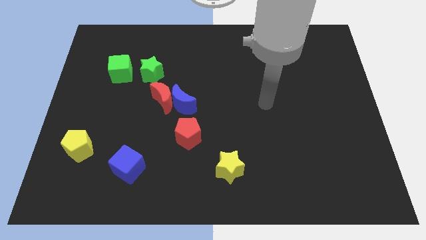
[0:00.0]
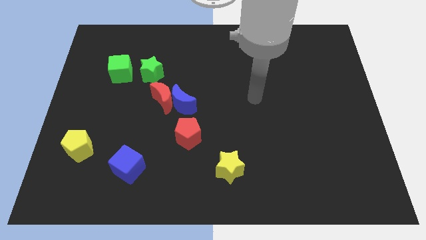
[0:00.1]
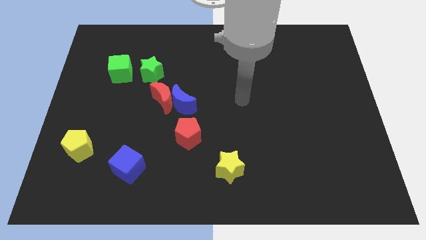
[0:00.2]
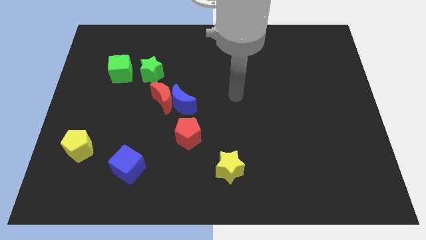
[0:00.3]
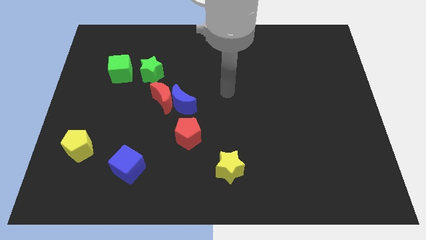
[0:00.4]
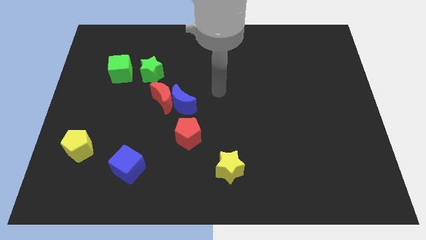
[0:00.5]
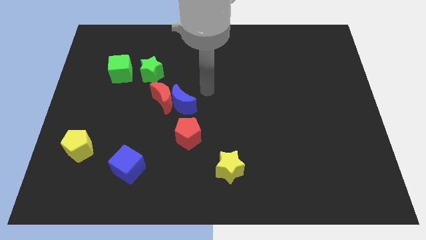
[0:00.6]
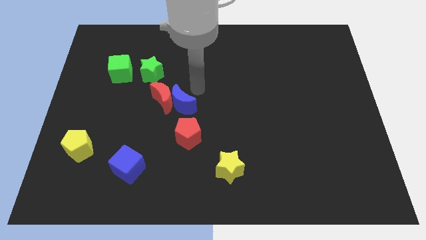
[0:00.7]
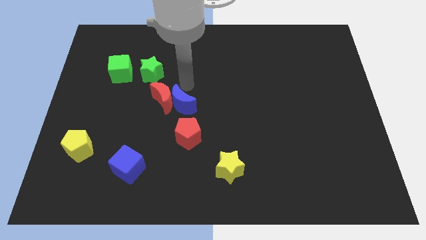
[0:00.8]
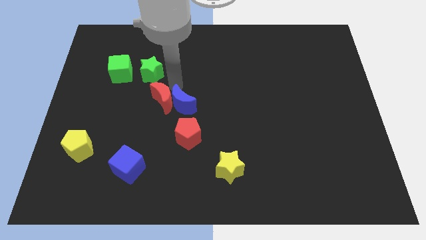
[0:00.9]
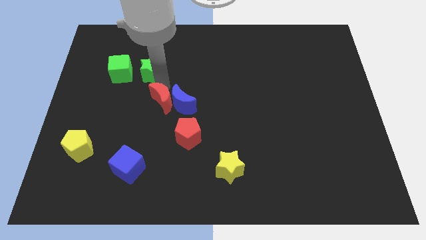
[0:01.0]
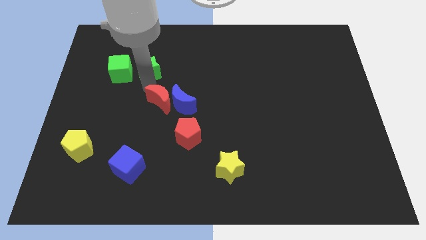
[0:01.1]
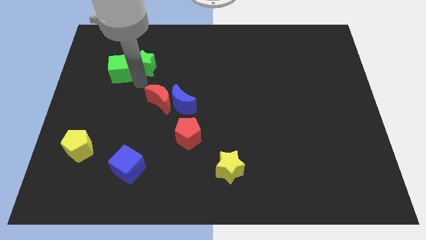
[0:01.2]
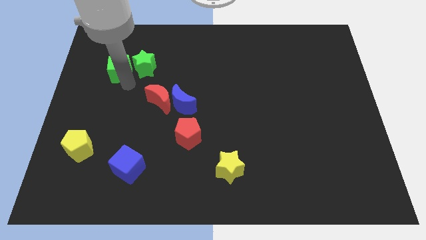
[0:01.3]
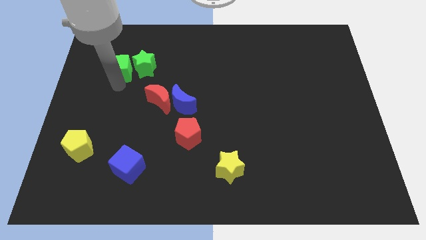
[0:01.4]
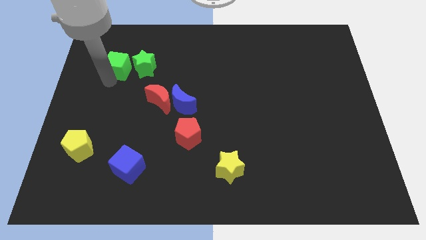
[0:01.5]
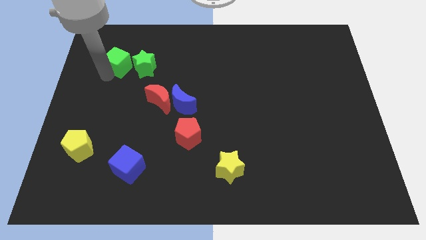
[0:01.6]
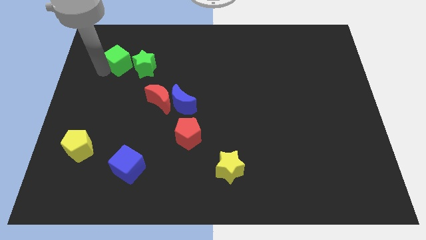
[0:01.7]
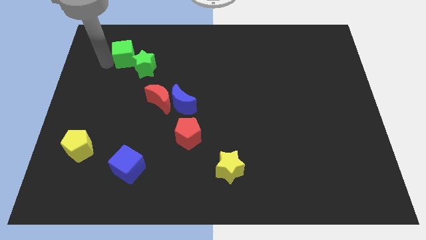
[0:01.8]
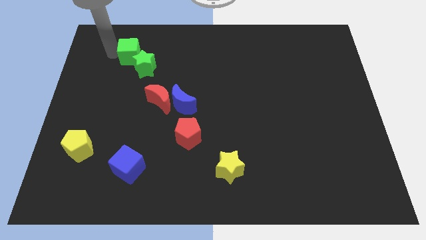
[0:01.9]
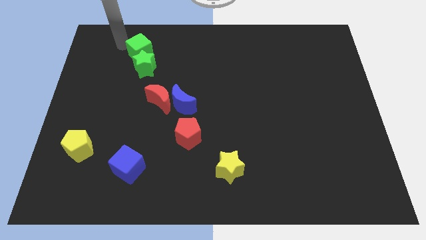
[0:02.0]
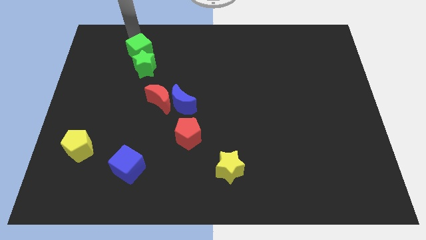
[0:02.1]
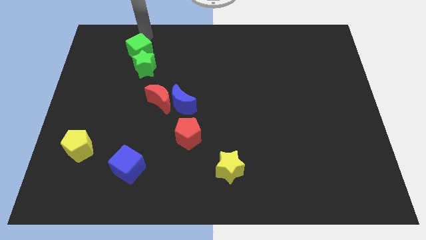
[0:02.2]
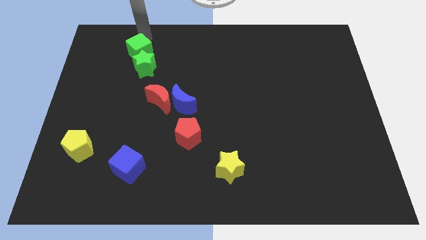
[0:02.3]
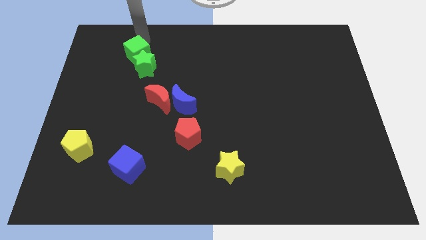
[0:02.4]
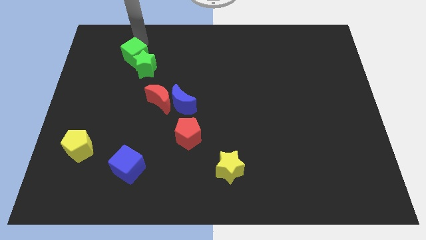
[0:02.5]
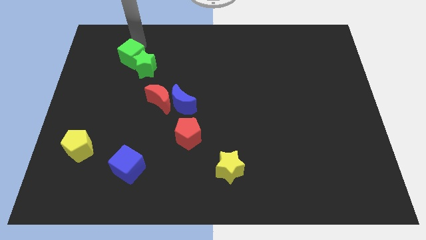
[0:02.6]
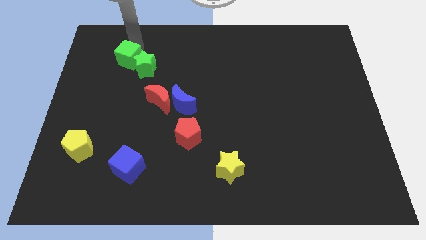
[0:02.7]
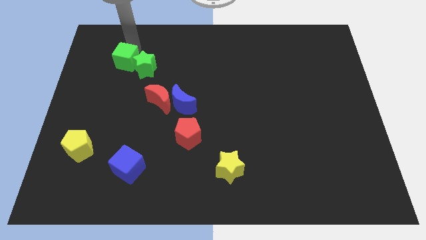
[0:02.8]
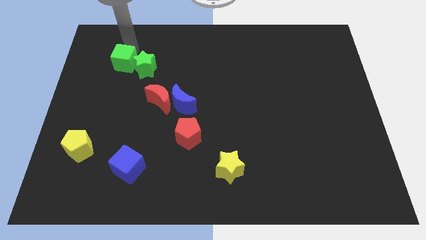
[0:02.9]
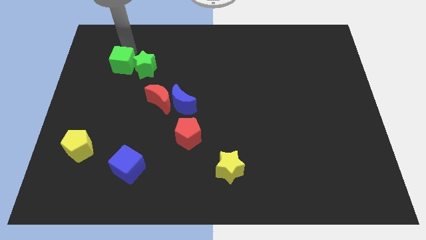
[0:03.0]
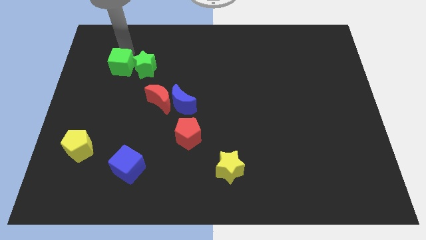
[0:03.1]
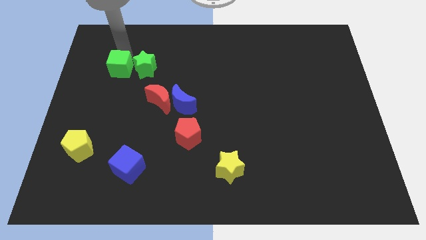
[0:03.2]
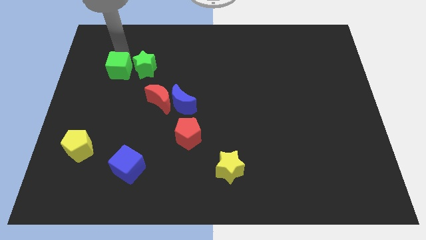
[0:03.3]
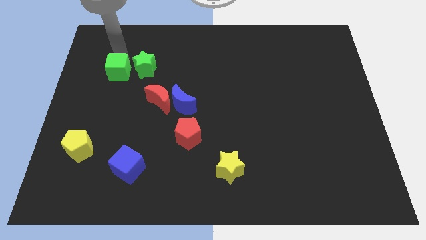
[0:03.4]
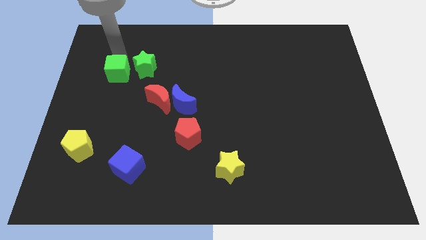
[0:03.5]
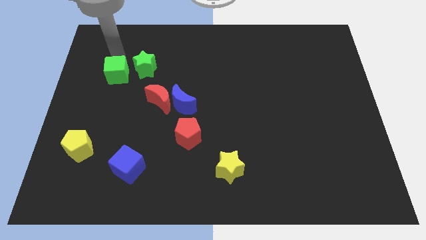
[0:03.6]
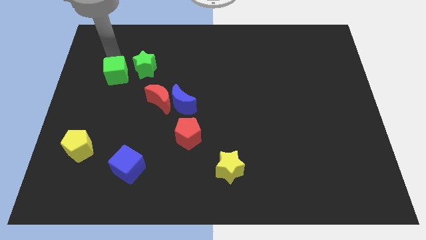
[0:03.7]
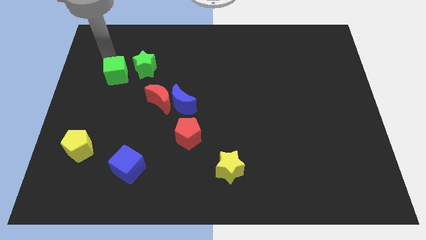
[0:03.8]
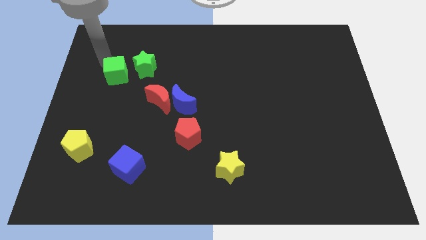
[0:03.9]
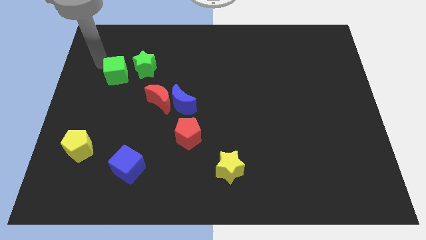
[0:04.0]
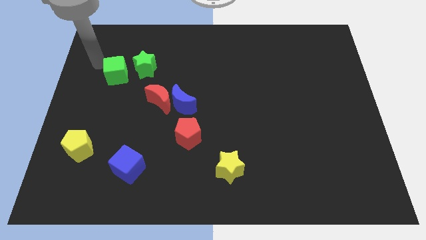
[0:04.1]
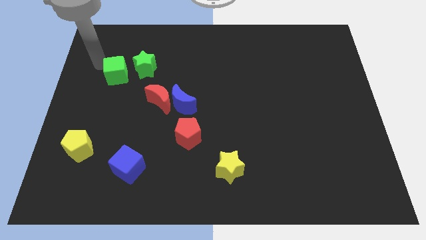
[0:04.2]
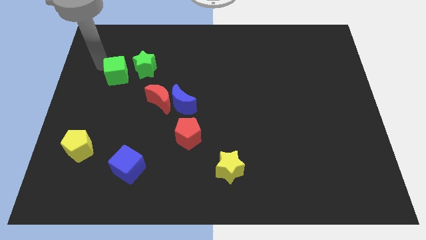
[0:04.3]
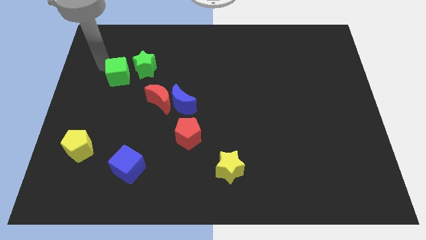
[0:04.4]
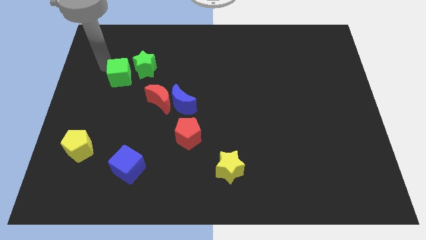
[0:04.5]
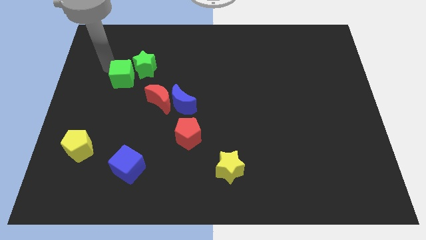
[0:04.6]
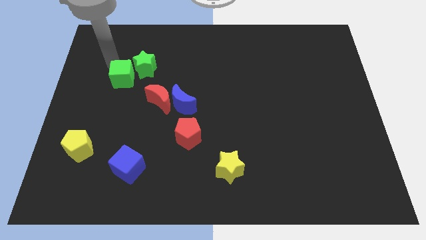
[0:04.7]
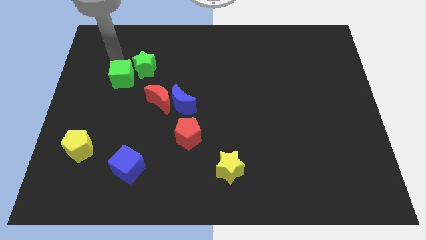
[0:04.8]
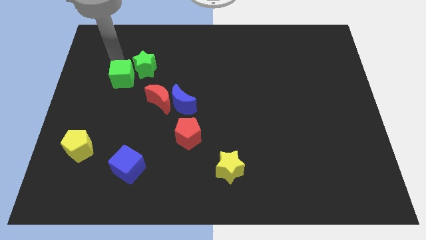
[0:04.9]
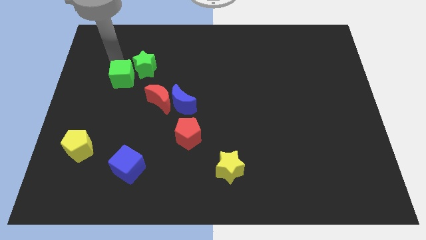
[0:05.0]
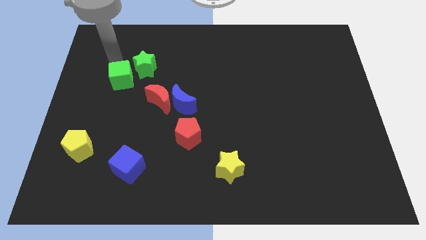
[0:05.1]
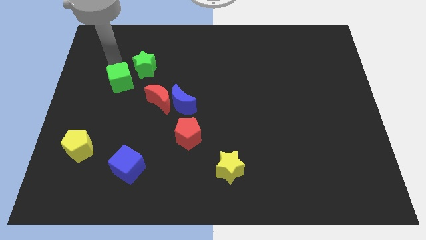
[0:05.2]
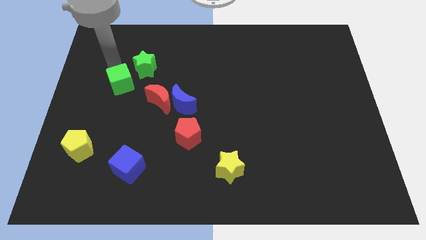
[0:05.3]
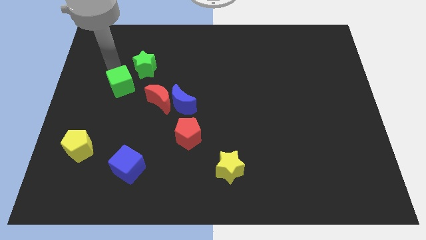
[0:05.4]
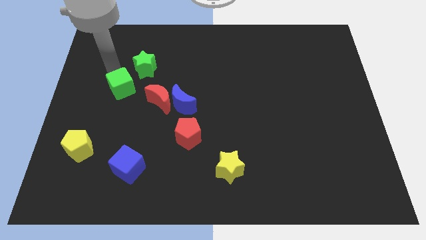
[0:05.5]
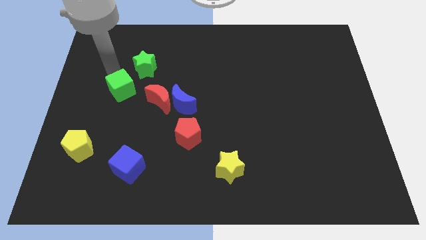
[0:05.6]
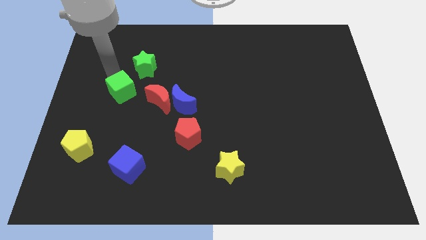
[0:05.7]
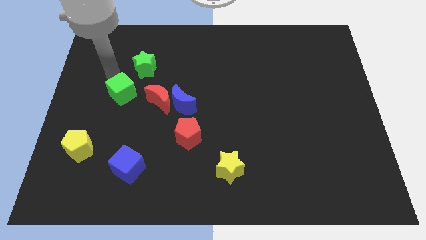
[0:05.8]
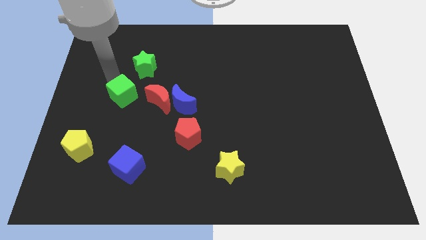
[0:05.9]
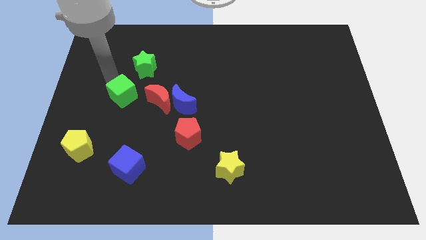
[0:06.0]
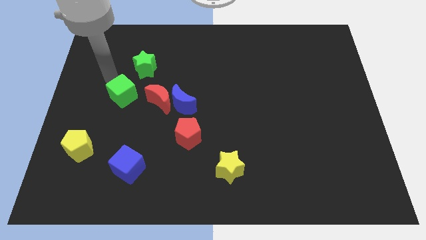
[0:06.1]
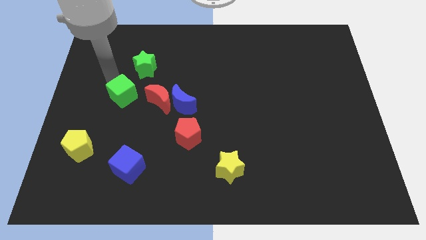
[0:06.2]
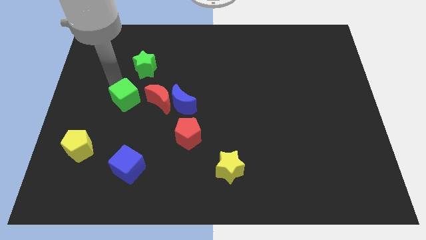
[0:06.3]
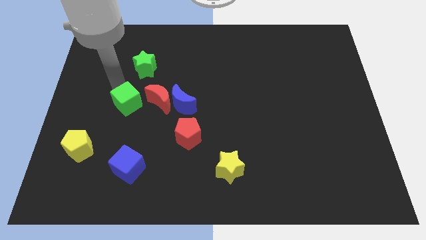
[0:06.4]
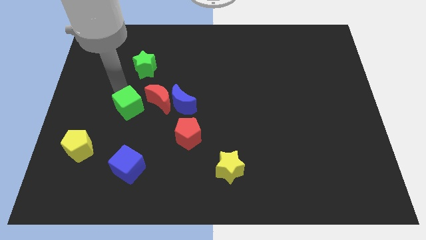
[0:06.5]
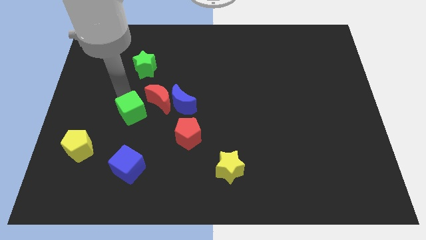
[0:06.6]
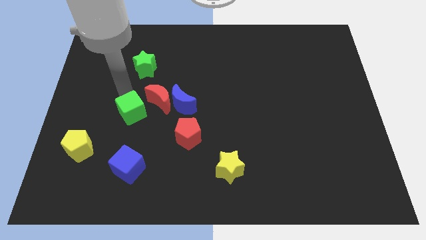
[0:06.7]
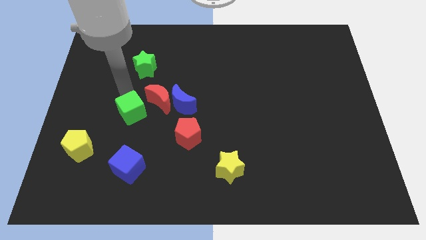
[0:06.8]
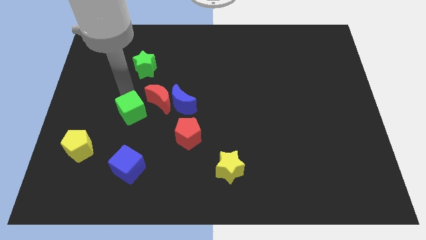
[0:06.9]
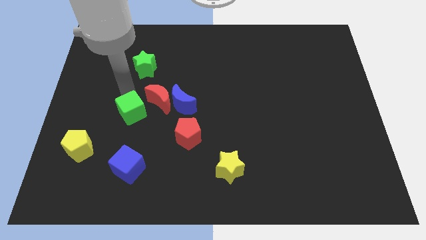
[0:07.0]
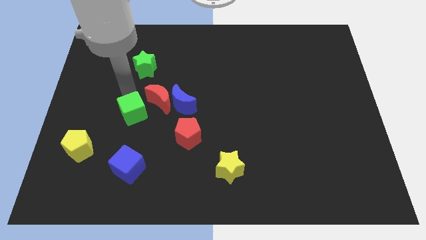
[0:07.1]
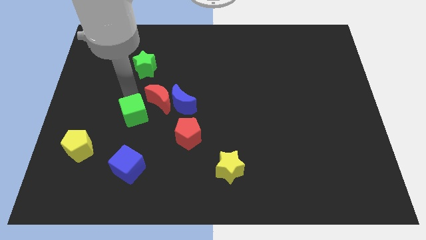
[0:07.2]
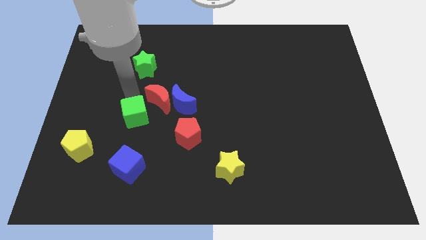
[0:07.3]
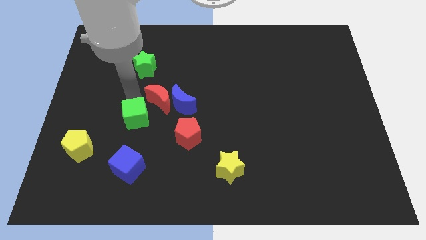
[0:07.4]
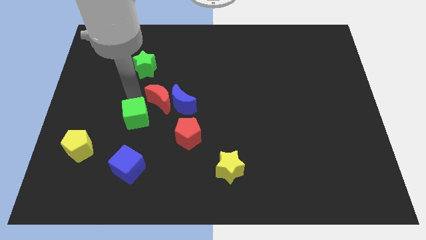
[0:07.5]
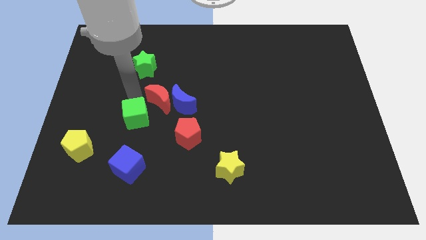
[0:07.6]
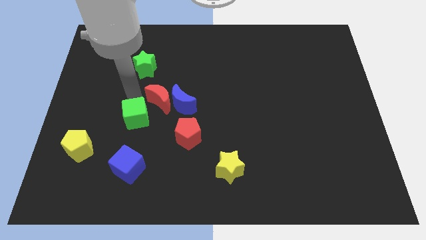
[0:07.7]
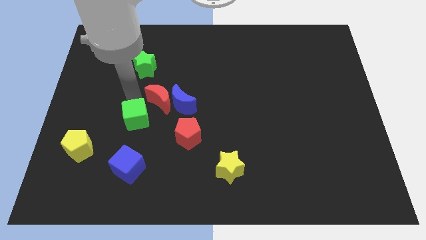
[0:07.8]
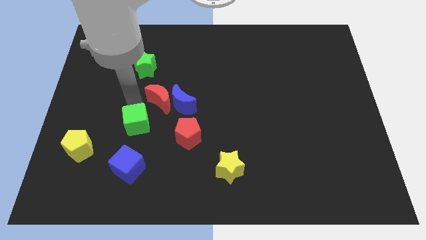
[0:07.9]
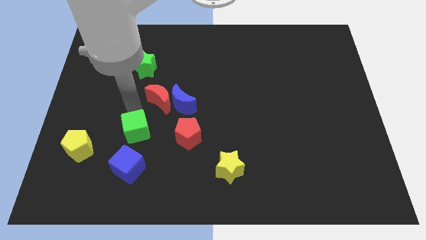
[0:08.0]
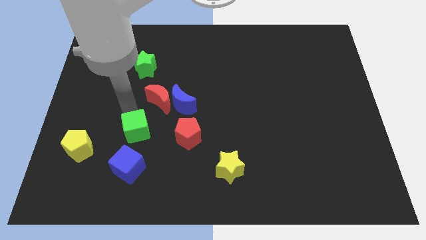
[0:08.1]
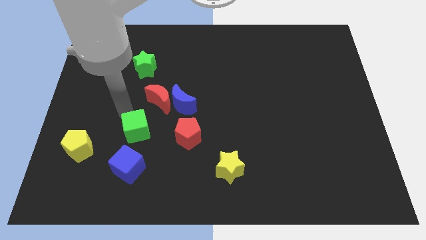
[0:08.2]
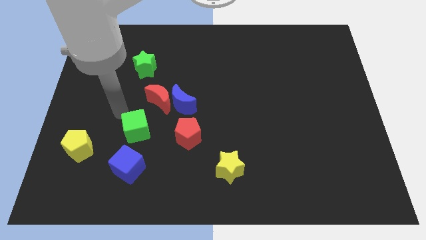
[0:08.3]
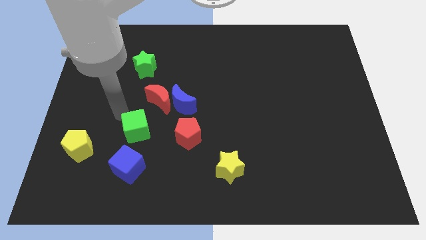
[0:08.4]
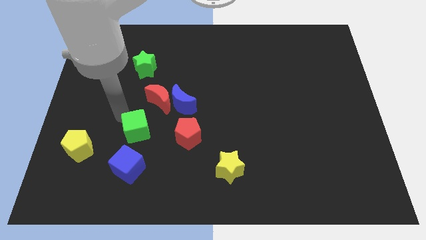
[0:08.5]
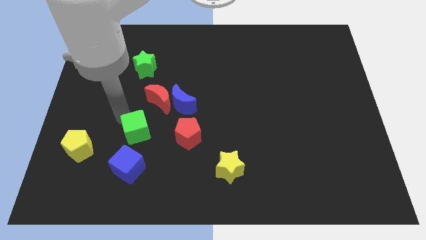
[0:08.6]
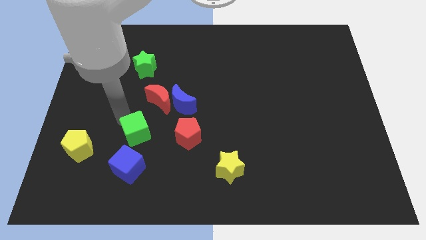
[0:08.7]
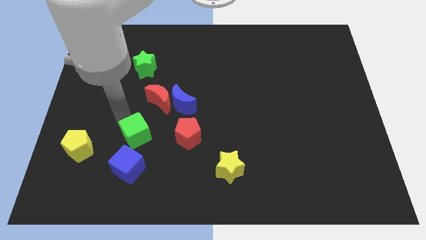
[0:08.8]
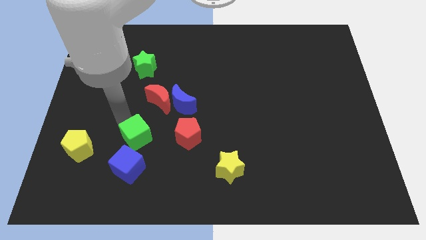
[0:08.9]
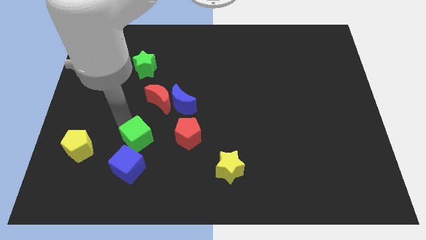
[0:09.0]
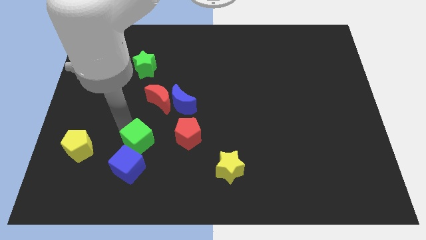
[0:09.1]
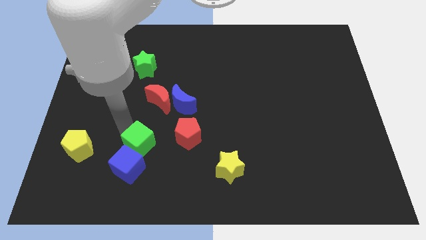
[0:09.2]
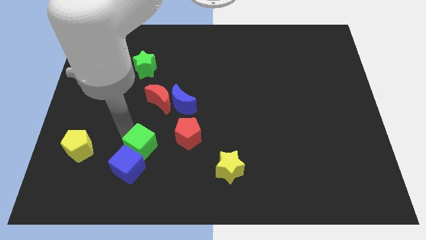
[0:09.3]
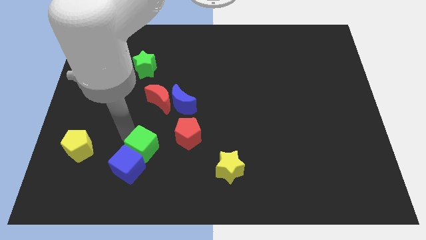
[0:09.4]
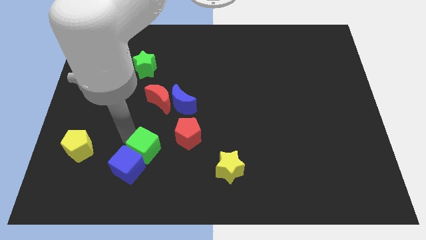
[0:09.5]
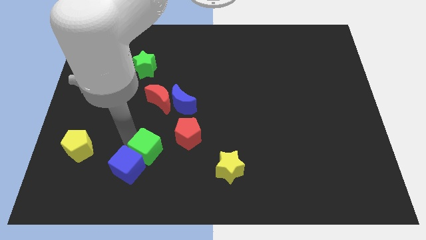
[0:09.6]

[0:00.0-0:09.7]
push the green cube just right of the blue cube
